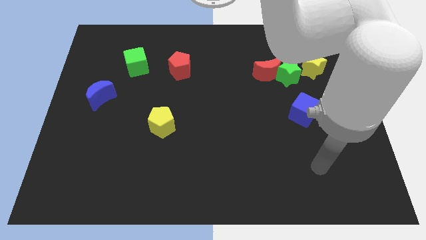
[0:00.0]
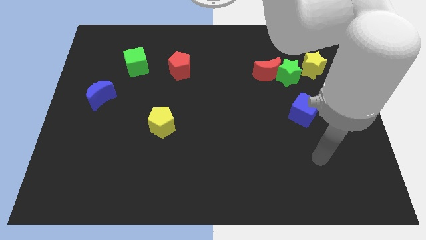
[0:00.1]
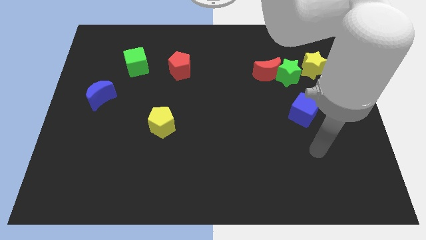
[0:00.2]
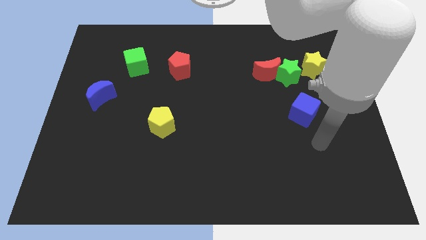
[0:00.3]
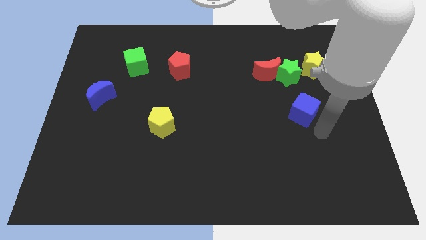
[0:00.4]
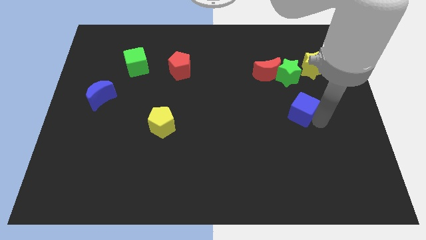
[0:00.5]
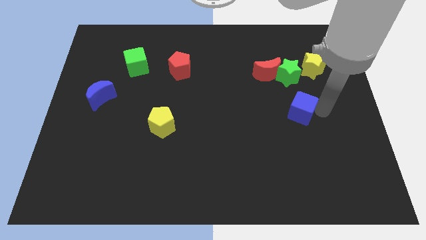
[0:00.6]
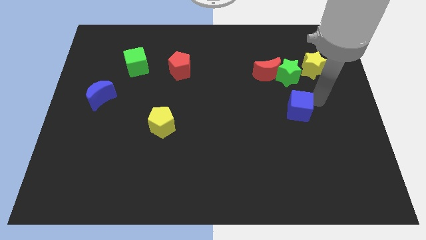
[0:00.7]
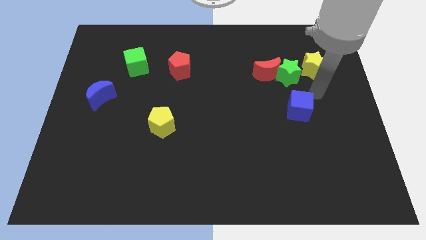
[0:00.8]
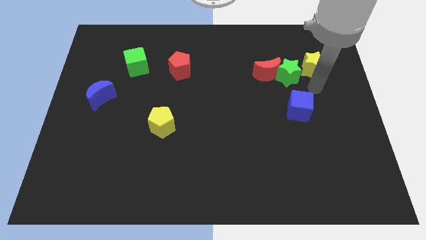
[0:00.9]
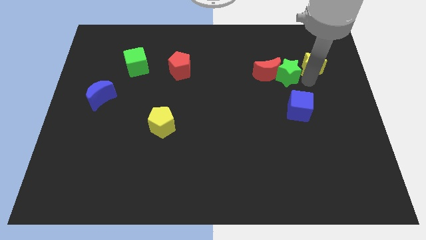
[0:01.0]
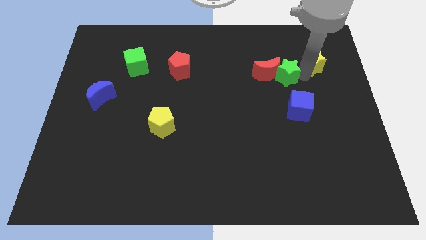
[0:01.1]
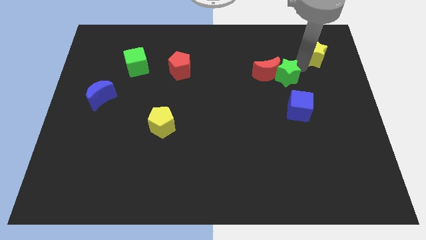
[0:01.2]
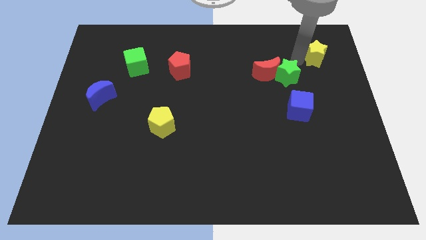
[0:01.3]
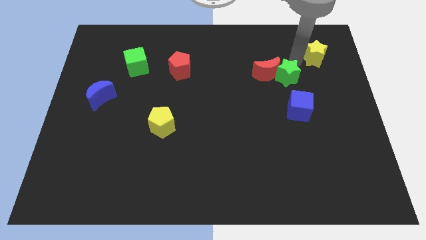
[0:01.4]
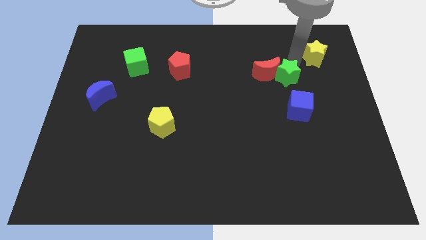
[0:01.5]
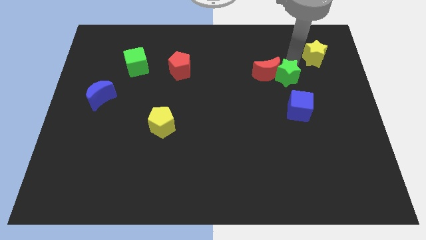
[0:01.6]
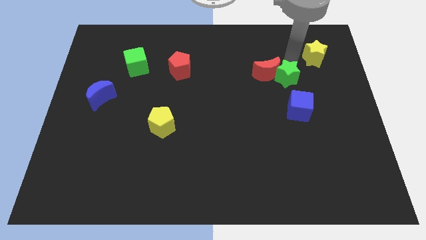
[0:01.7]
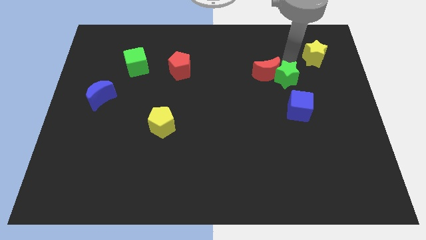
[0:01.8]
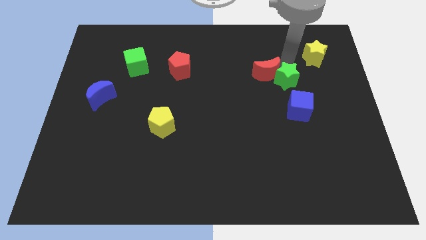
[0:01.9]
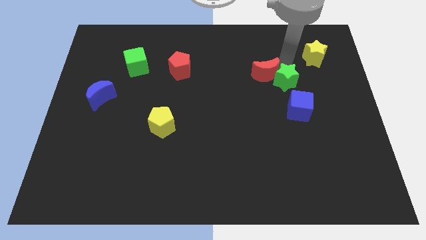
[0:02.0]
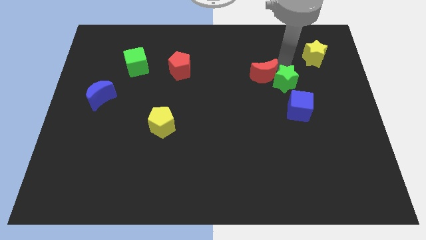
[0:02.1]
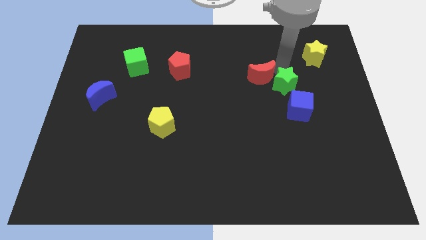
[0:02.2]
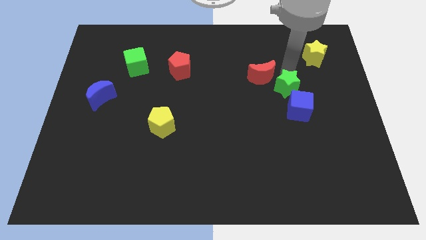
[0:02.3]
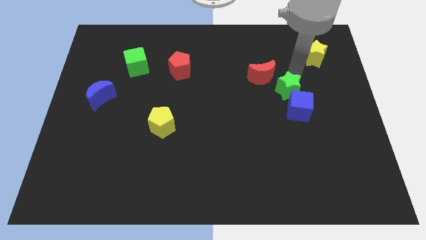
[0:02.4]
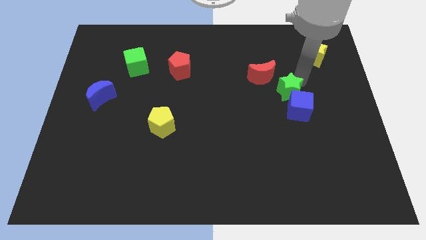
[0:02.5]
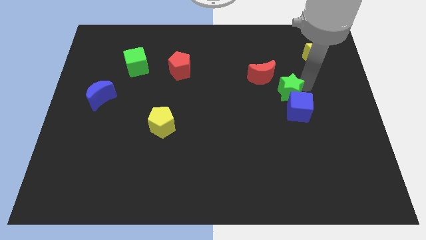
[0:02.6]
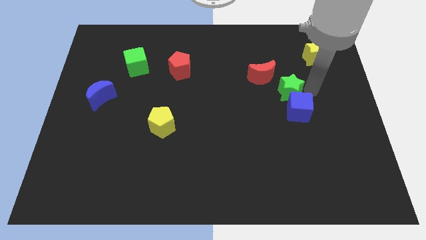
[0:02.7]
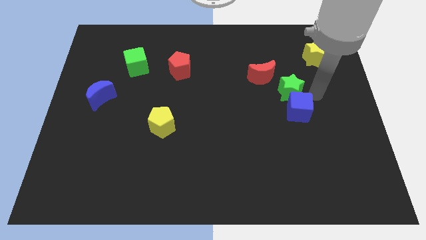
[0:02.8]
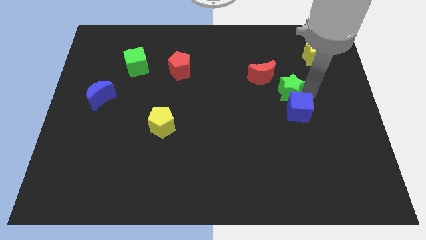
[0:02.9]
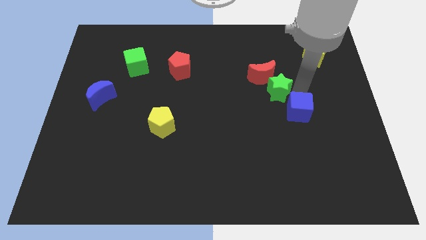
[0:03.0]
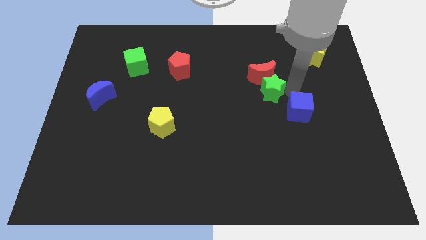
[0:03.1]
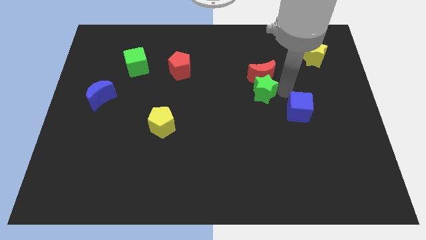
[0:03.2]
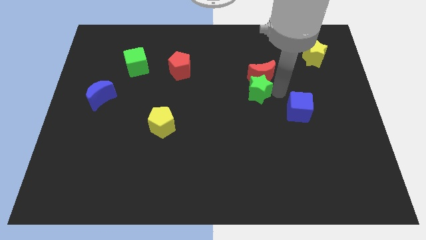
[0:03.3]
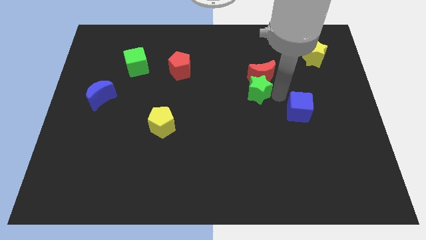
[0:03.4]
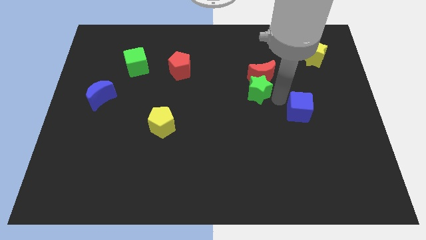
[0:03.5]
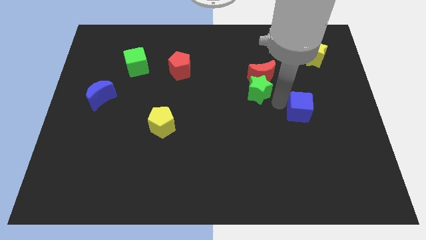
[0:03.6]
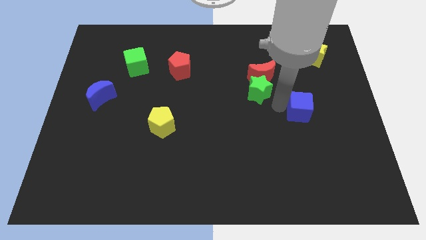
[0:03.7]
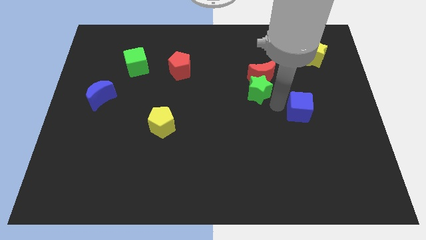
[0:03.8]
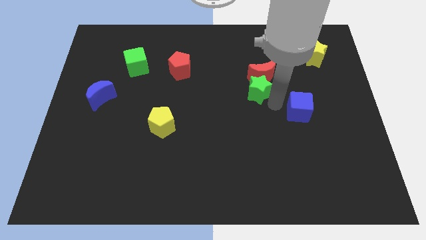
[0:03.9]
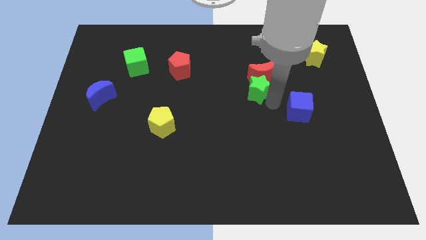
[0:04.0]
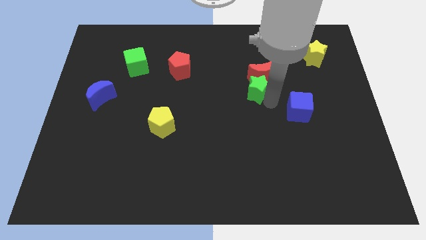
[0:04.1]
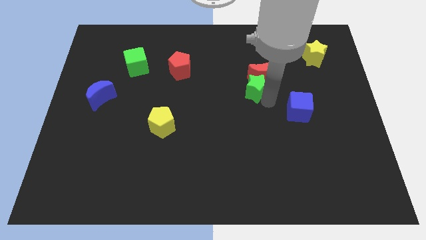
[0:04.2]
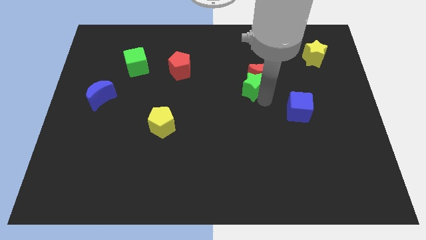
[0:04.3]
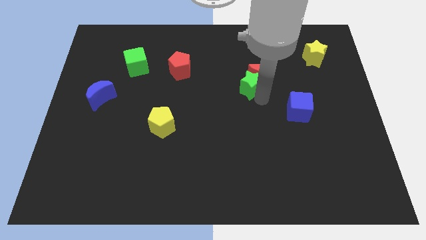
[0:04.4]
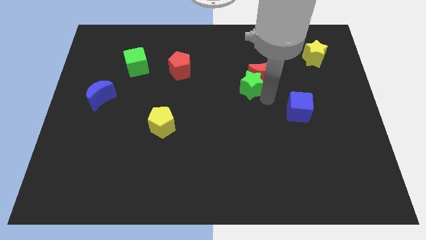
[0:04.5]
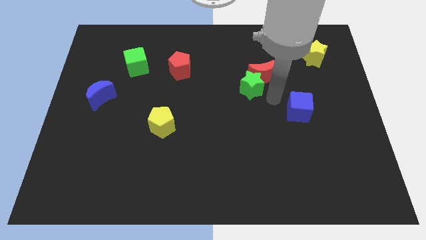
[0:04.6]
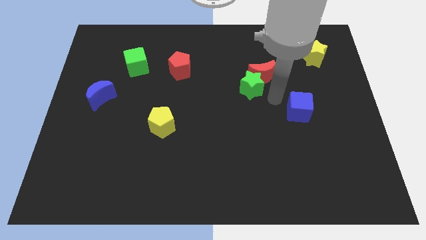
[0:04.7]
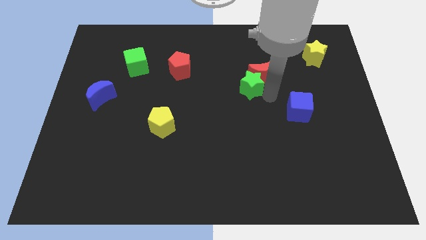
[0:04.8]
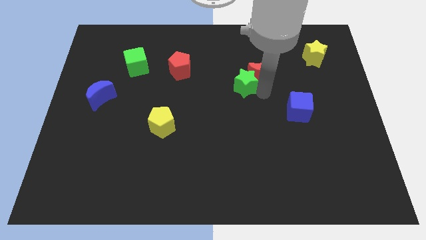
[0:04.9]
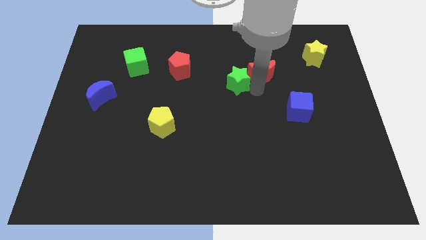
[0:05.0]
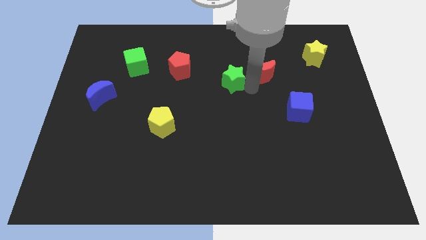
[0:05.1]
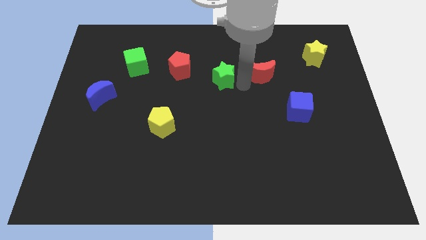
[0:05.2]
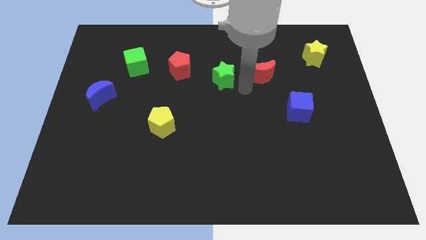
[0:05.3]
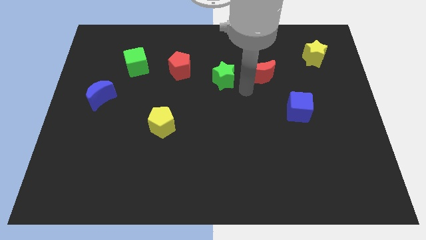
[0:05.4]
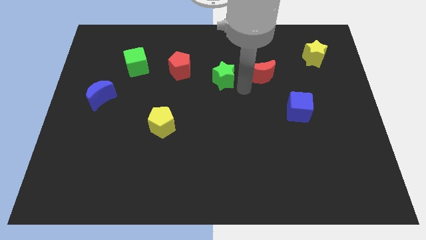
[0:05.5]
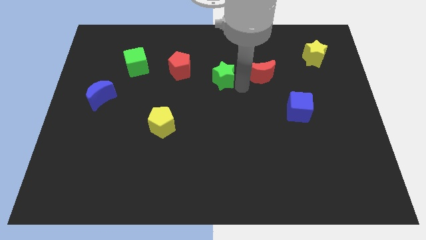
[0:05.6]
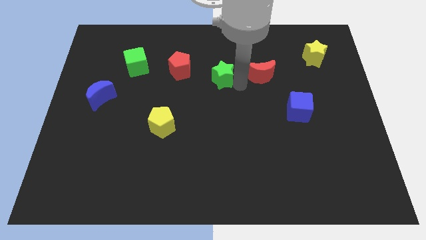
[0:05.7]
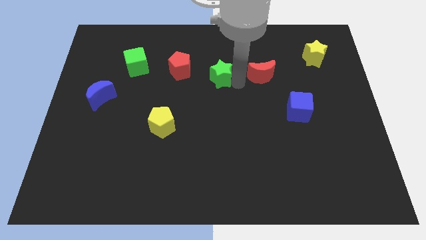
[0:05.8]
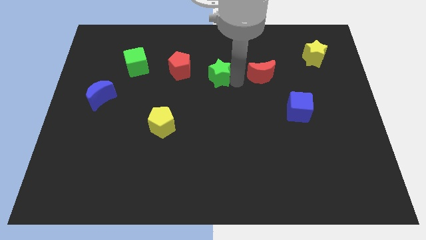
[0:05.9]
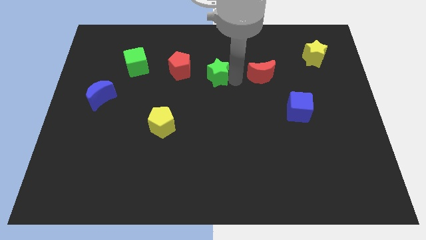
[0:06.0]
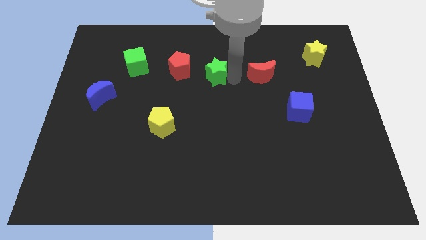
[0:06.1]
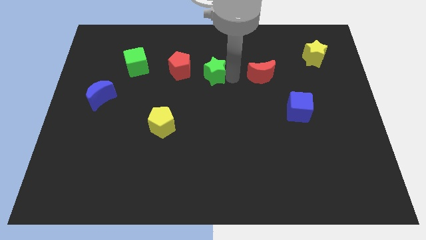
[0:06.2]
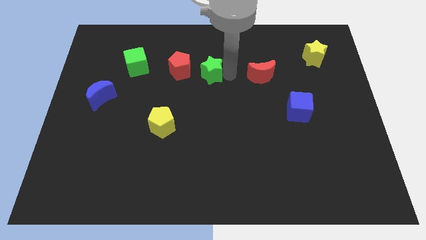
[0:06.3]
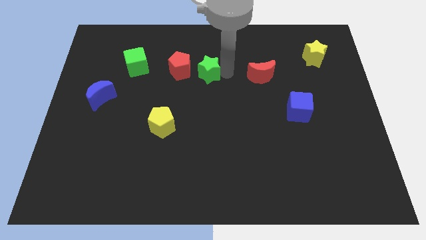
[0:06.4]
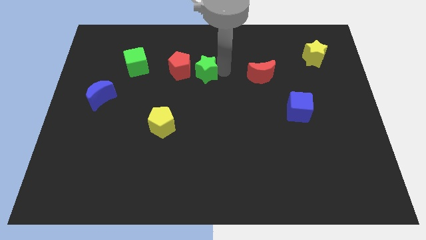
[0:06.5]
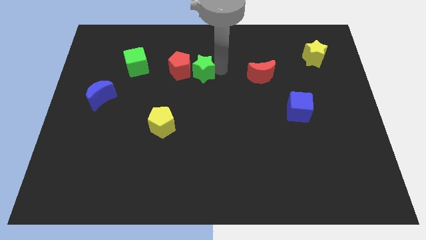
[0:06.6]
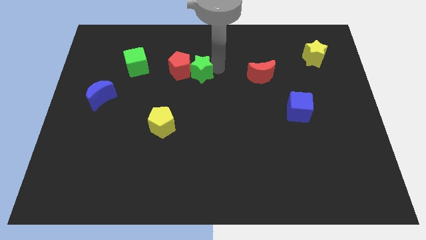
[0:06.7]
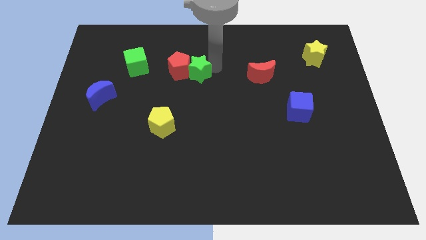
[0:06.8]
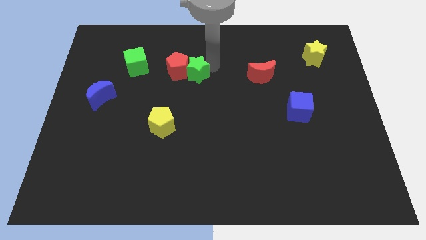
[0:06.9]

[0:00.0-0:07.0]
slide the green star to the right of the green cube

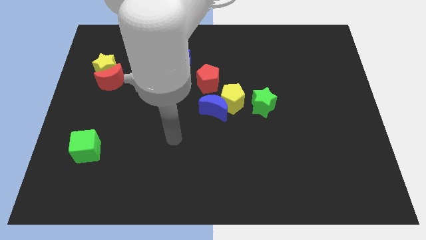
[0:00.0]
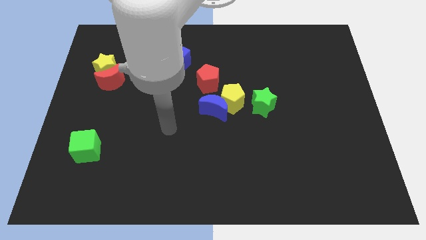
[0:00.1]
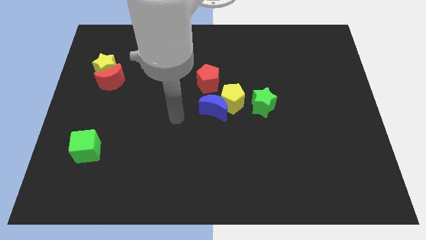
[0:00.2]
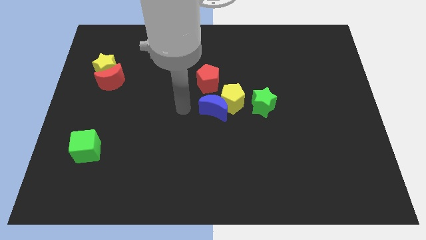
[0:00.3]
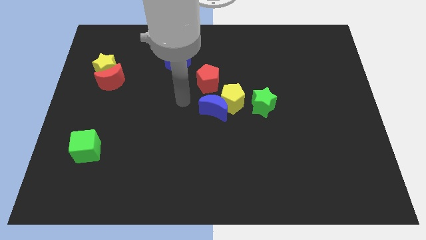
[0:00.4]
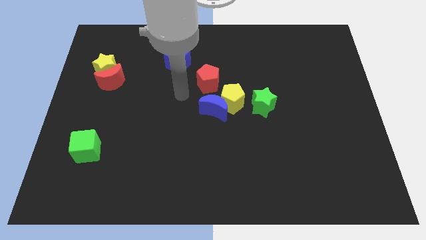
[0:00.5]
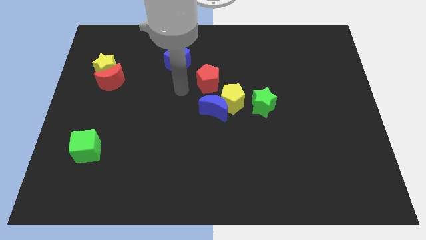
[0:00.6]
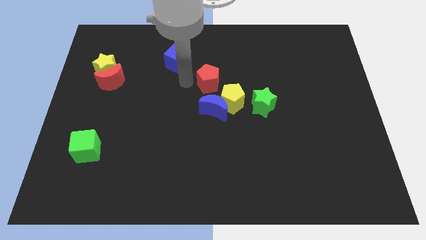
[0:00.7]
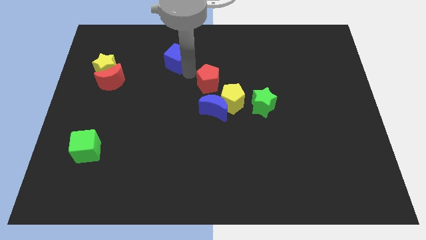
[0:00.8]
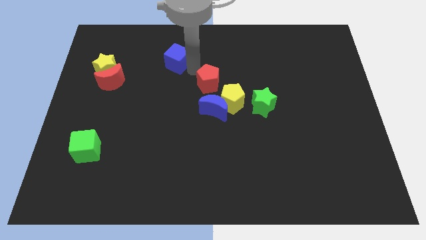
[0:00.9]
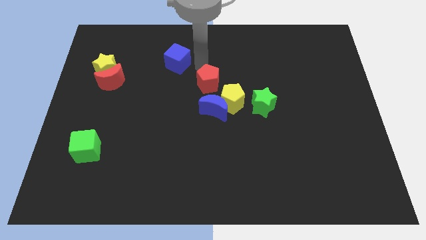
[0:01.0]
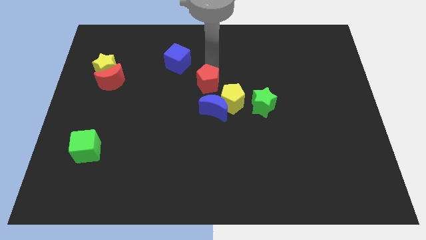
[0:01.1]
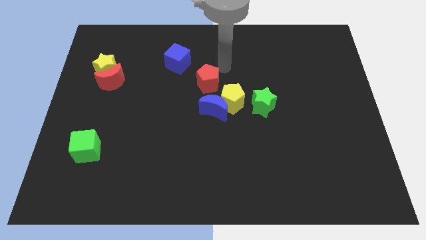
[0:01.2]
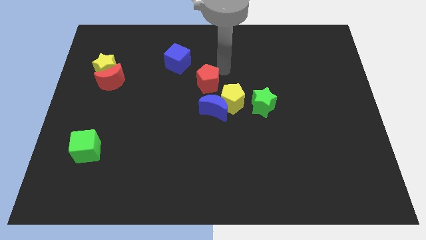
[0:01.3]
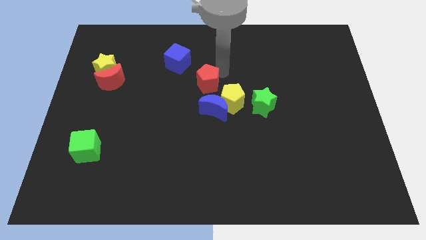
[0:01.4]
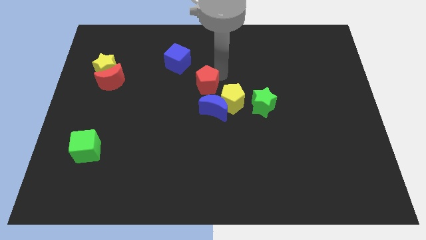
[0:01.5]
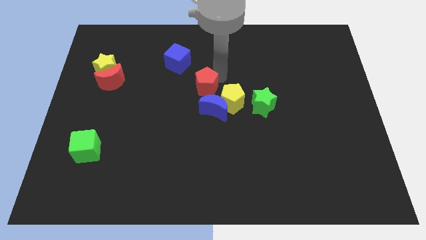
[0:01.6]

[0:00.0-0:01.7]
put the red pentagon left of the yellow pentagon
